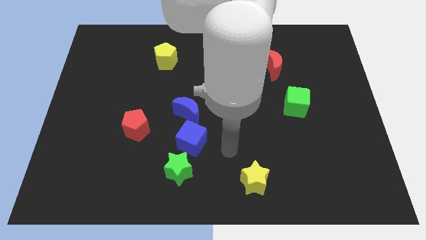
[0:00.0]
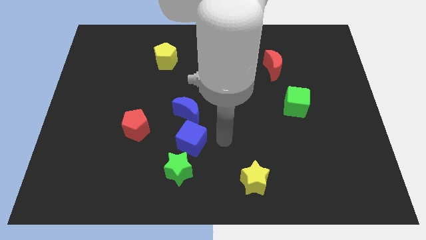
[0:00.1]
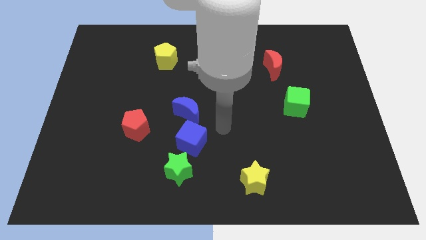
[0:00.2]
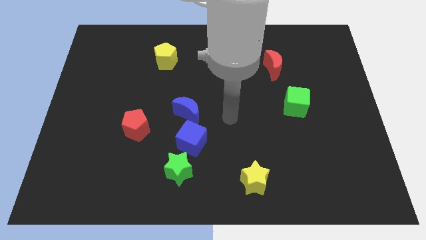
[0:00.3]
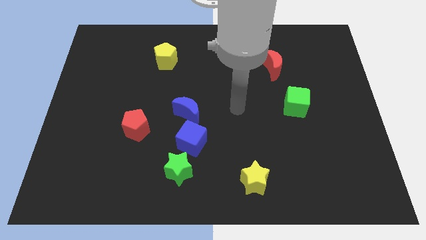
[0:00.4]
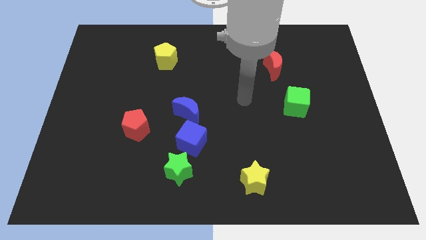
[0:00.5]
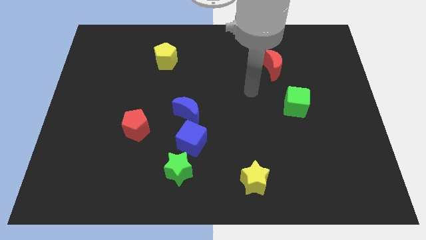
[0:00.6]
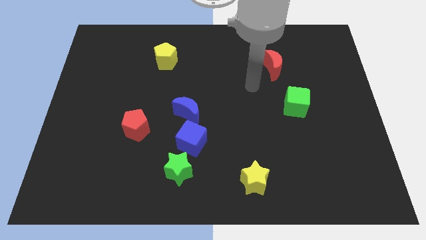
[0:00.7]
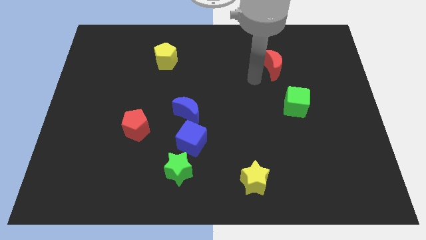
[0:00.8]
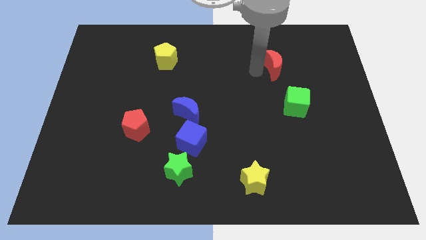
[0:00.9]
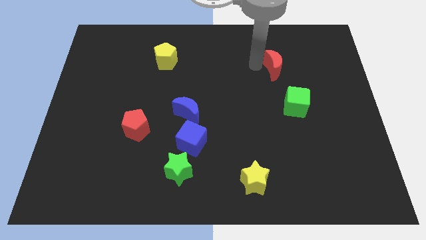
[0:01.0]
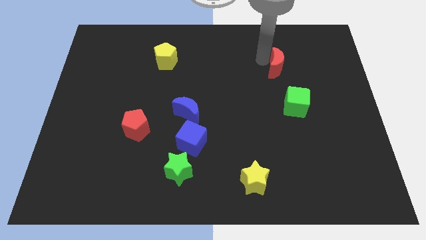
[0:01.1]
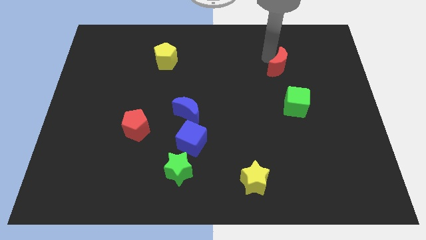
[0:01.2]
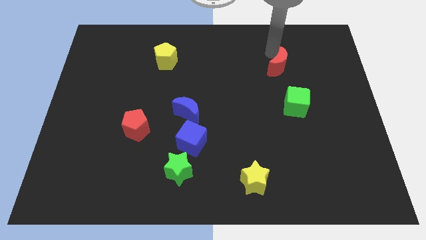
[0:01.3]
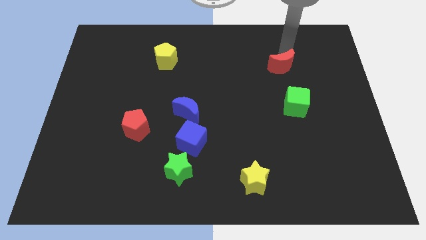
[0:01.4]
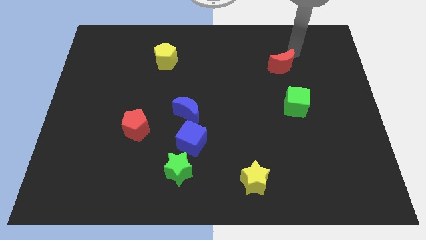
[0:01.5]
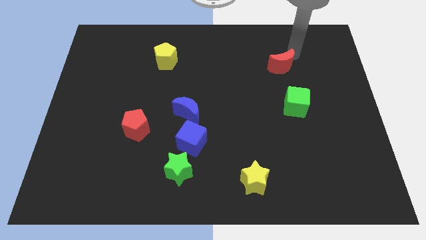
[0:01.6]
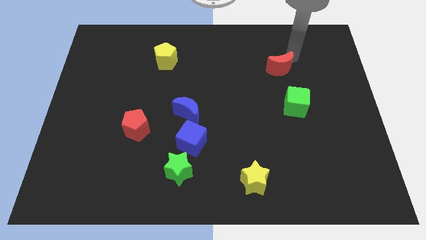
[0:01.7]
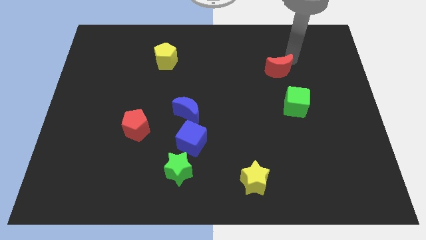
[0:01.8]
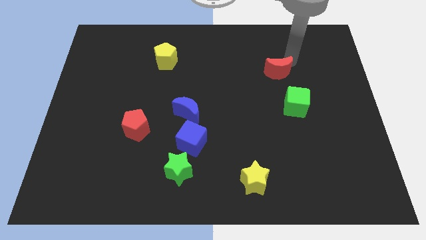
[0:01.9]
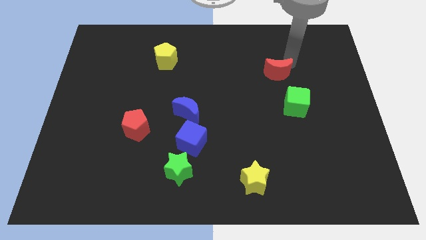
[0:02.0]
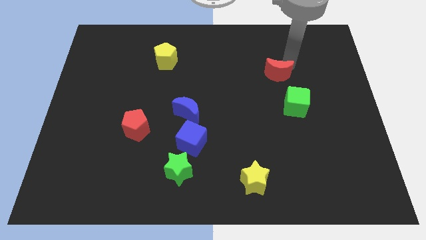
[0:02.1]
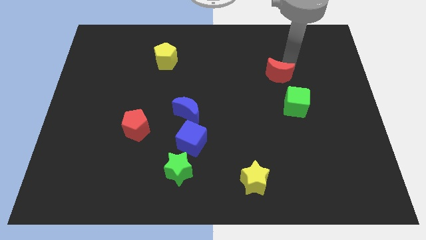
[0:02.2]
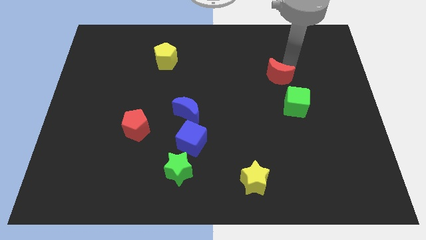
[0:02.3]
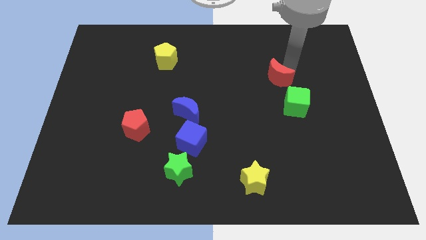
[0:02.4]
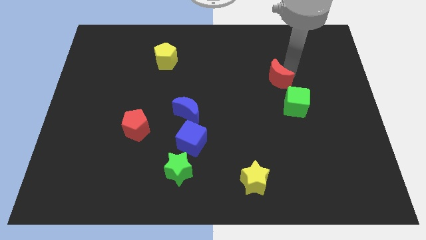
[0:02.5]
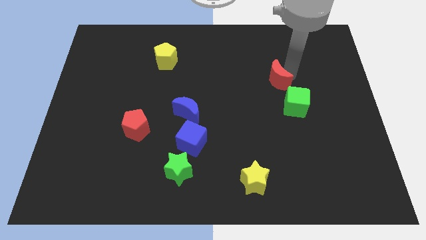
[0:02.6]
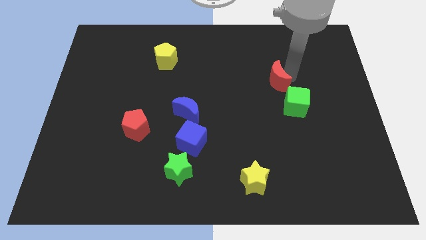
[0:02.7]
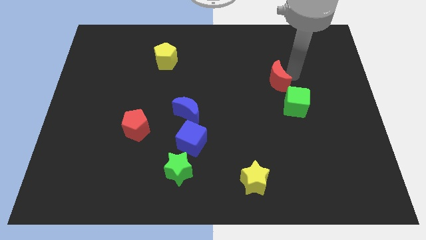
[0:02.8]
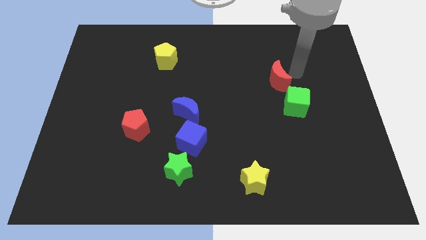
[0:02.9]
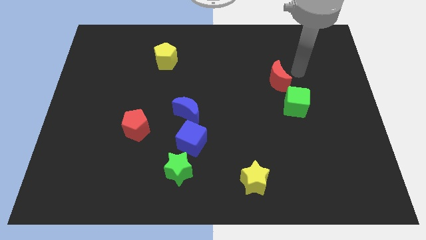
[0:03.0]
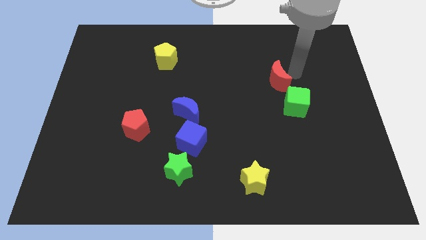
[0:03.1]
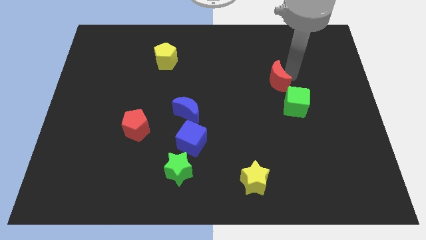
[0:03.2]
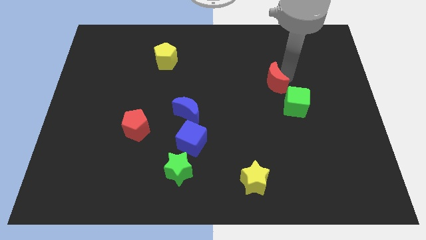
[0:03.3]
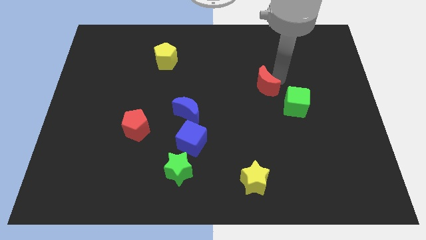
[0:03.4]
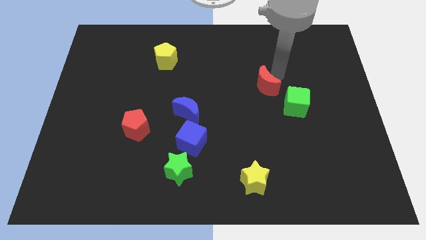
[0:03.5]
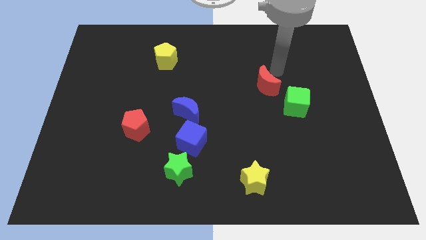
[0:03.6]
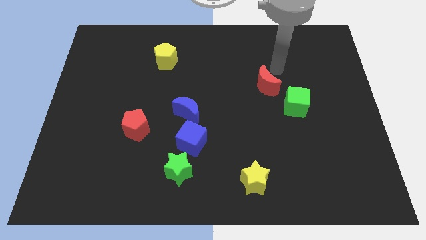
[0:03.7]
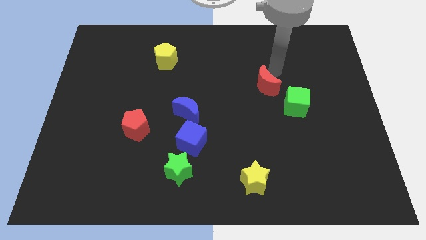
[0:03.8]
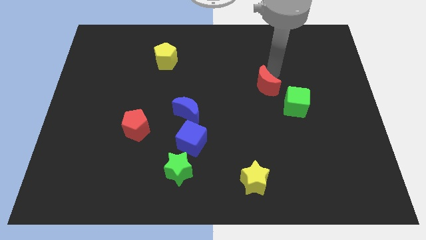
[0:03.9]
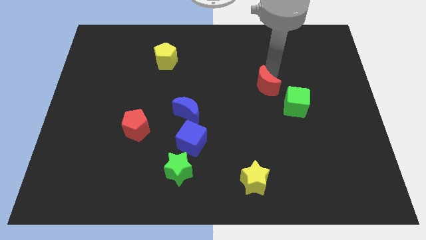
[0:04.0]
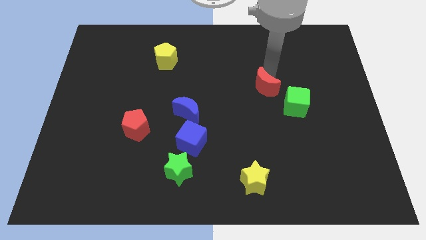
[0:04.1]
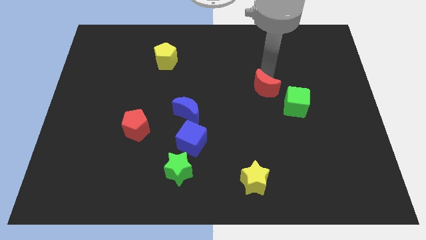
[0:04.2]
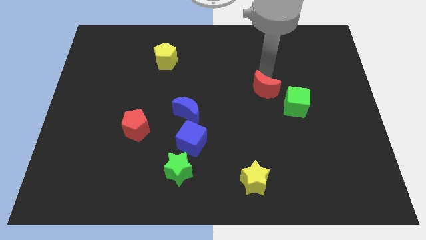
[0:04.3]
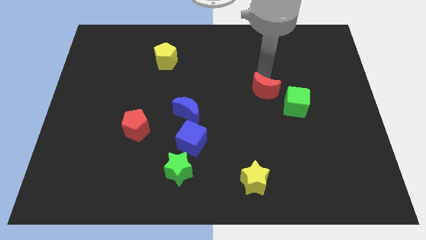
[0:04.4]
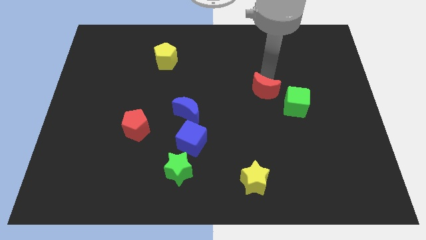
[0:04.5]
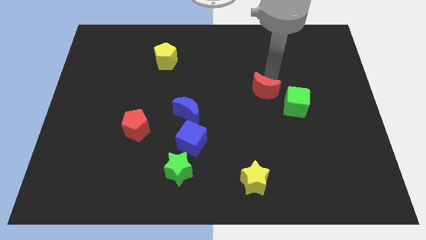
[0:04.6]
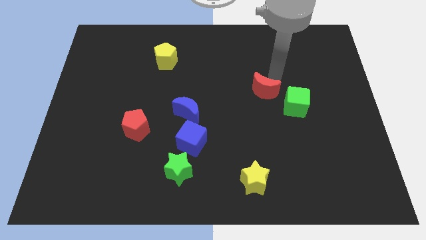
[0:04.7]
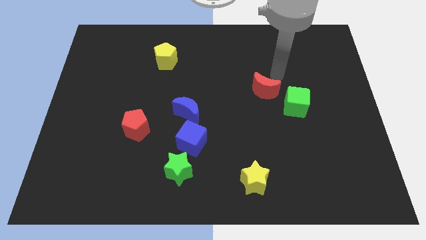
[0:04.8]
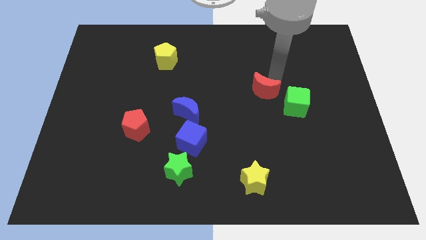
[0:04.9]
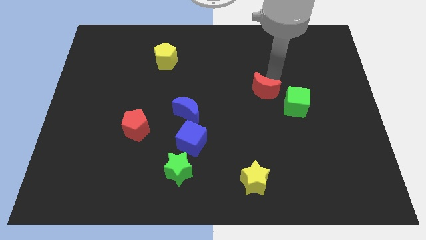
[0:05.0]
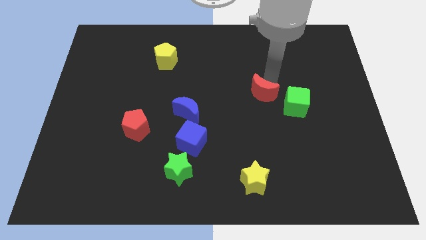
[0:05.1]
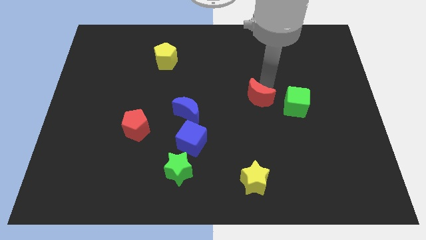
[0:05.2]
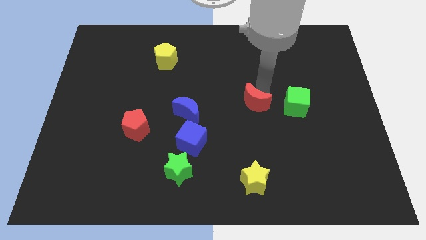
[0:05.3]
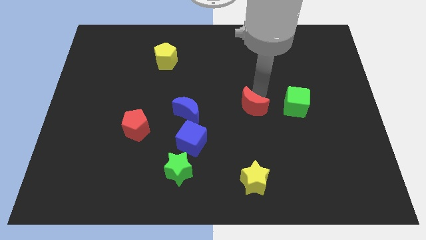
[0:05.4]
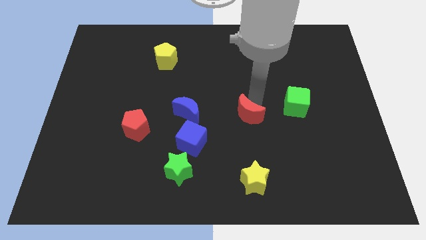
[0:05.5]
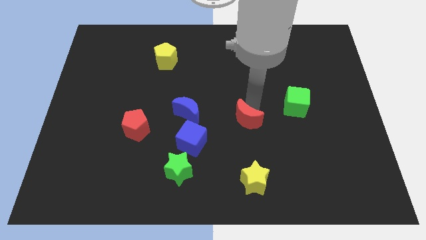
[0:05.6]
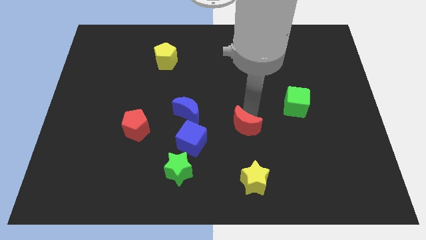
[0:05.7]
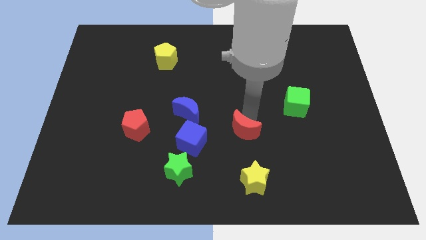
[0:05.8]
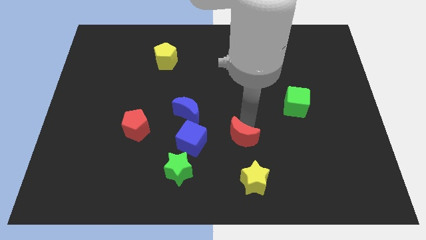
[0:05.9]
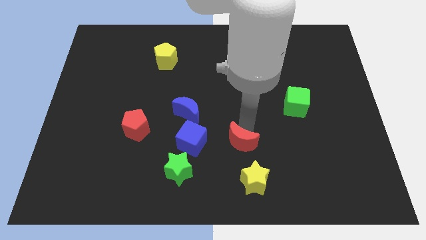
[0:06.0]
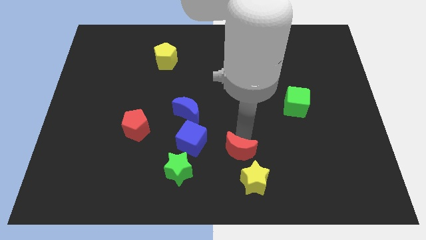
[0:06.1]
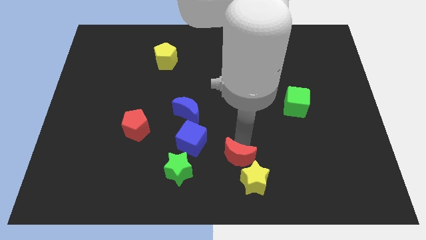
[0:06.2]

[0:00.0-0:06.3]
move the red moon right of the green star

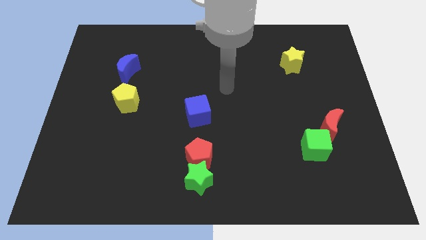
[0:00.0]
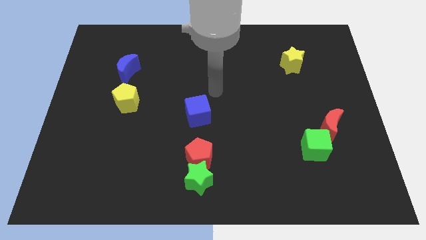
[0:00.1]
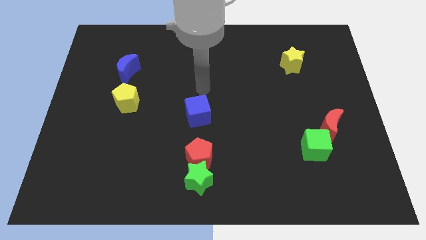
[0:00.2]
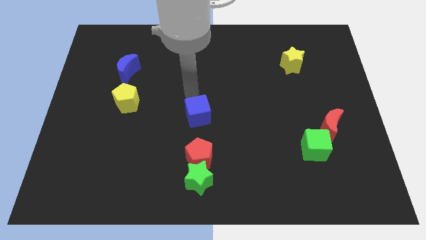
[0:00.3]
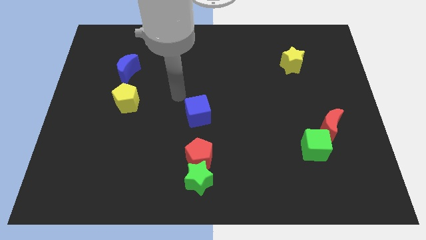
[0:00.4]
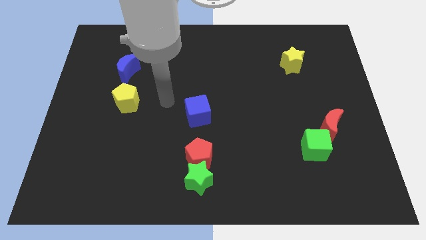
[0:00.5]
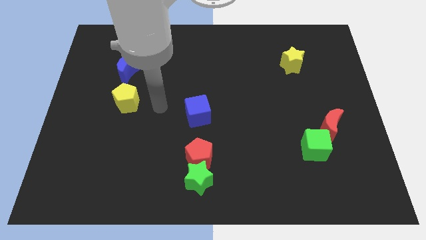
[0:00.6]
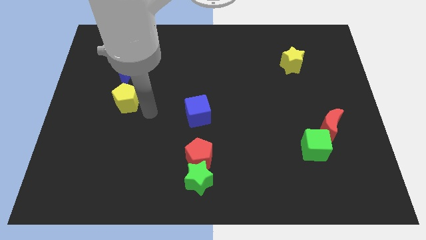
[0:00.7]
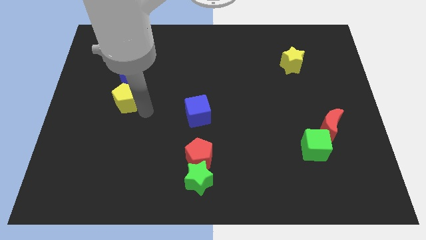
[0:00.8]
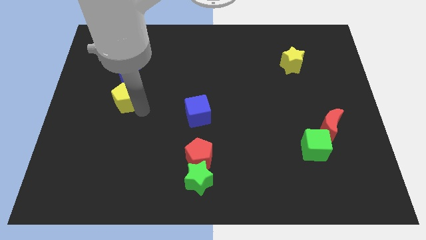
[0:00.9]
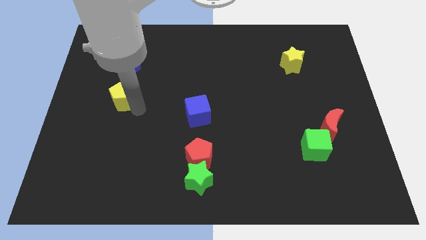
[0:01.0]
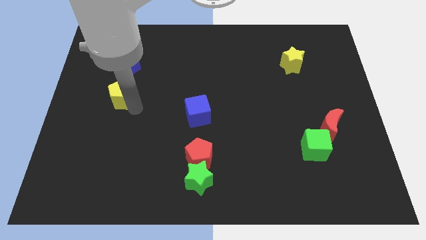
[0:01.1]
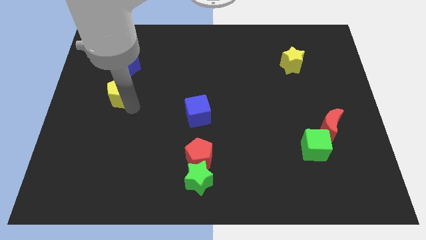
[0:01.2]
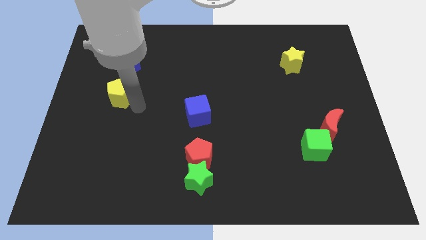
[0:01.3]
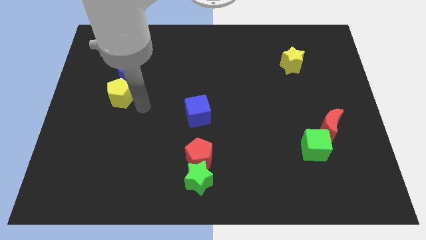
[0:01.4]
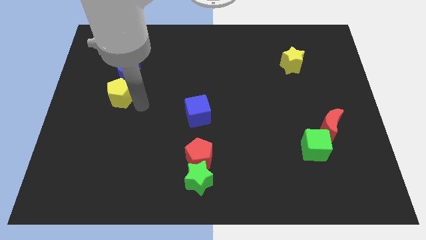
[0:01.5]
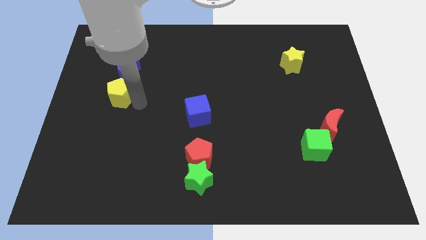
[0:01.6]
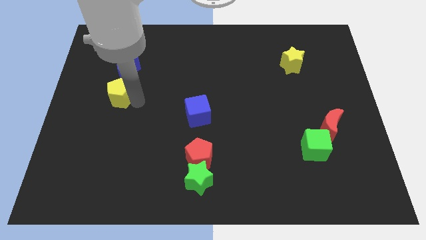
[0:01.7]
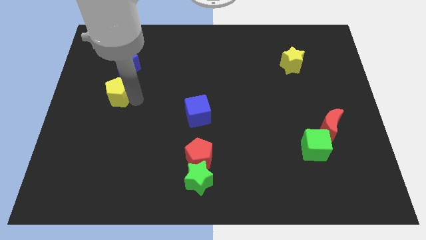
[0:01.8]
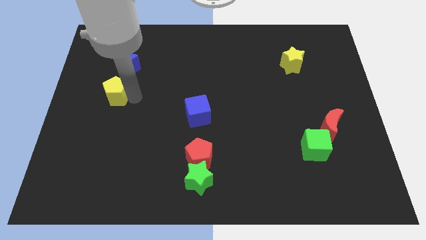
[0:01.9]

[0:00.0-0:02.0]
push the yellow pentagon to the bottom left side of the blue moon
